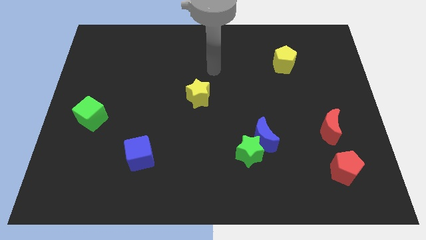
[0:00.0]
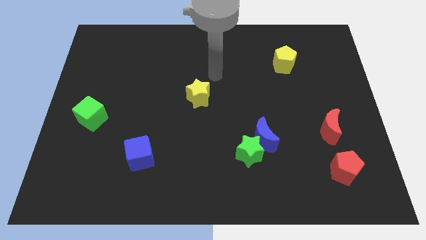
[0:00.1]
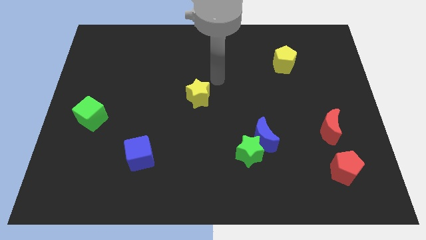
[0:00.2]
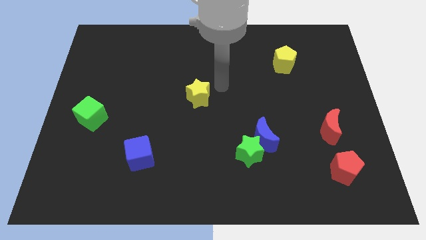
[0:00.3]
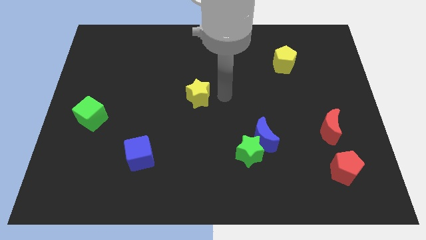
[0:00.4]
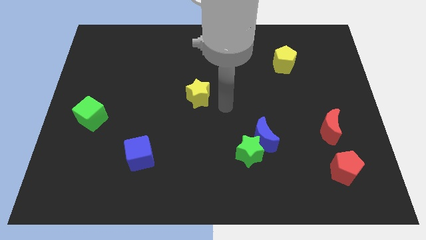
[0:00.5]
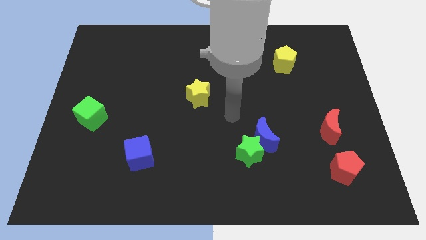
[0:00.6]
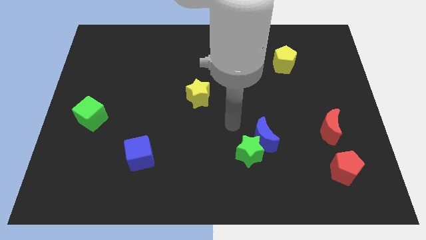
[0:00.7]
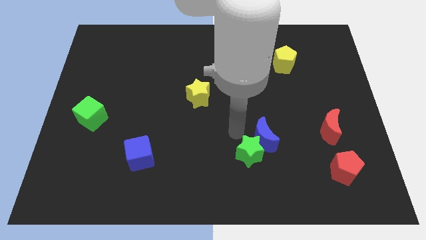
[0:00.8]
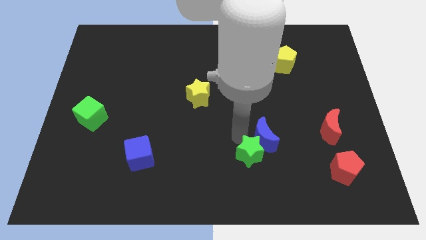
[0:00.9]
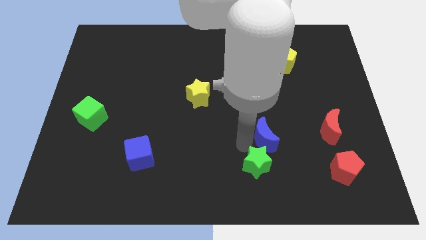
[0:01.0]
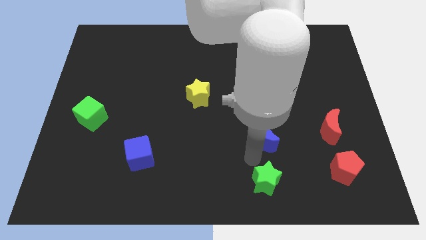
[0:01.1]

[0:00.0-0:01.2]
separate the blue moon from the green star

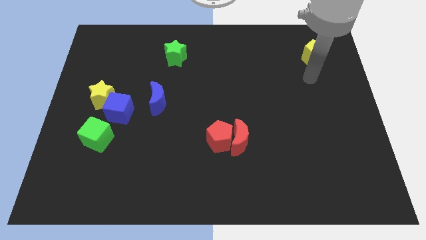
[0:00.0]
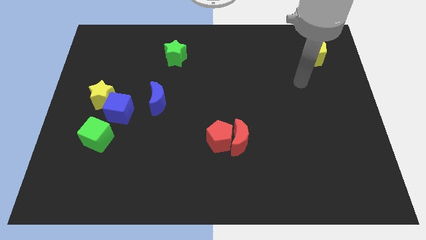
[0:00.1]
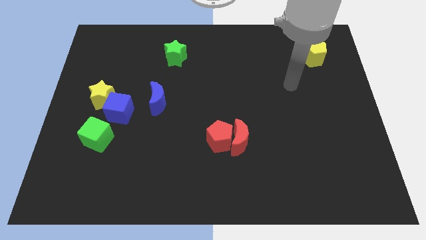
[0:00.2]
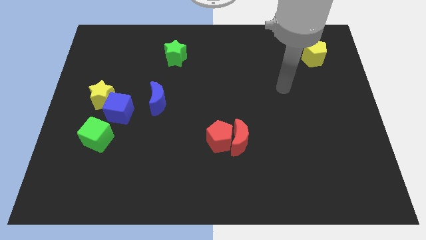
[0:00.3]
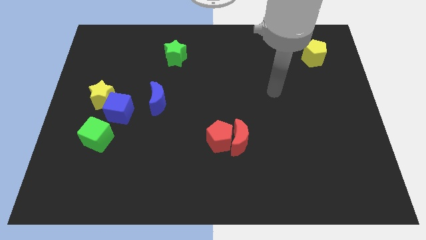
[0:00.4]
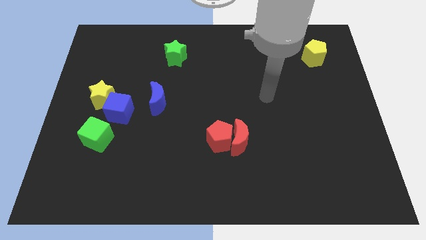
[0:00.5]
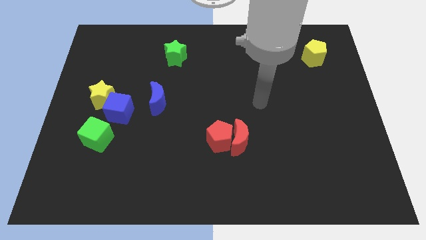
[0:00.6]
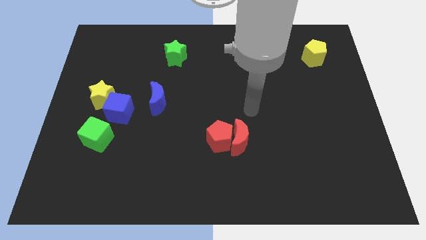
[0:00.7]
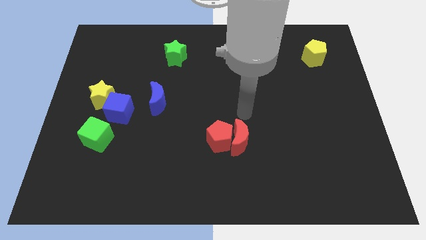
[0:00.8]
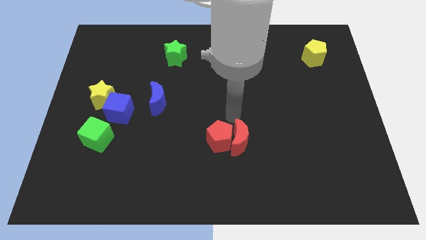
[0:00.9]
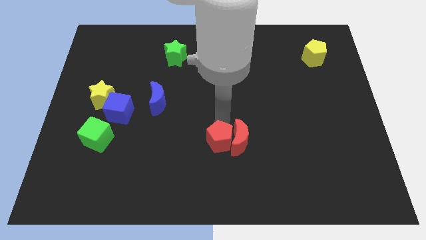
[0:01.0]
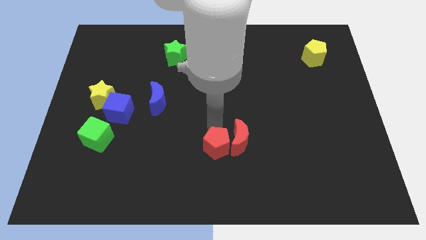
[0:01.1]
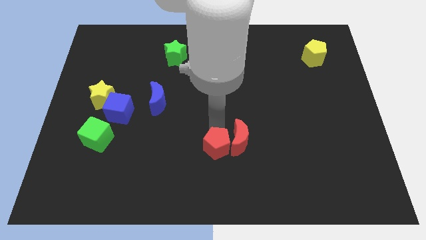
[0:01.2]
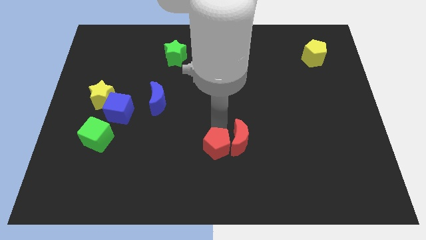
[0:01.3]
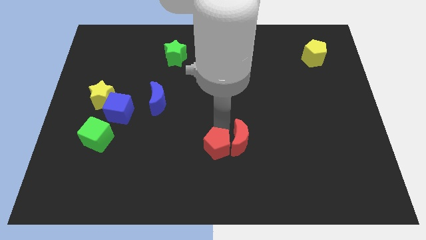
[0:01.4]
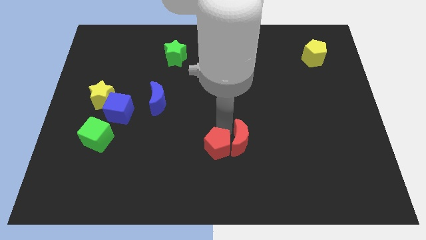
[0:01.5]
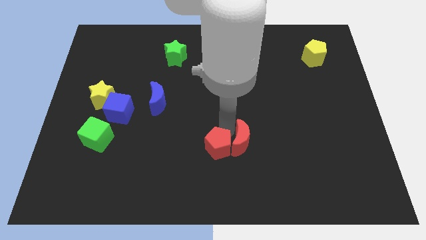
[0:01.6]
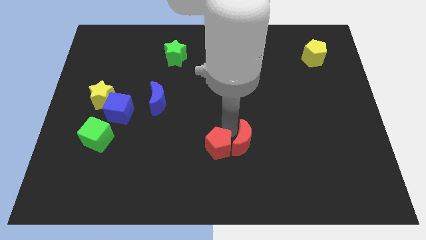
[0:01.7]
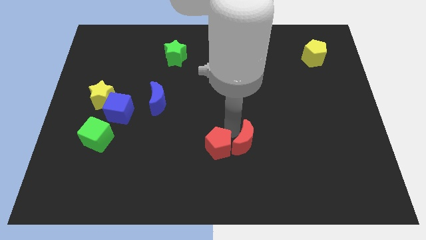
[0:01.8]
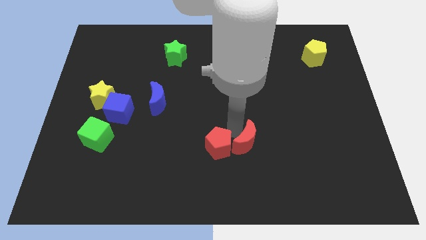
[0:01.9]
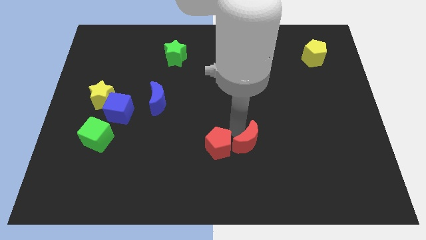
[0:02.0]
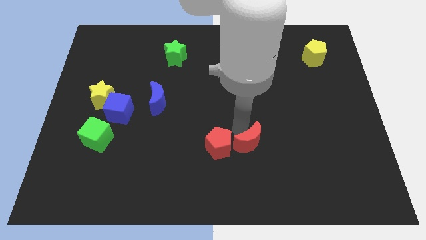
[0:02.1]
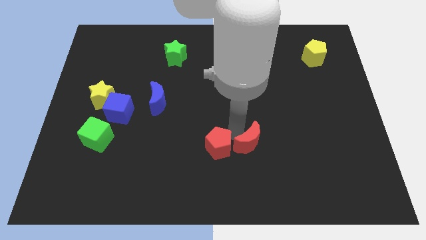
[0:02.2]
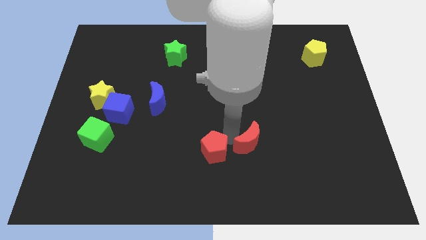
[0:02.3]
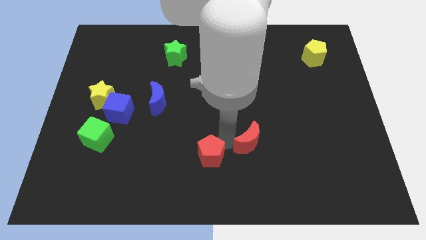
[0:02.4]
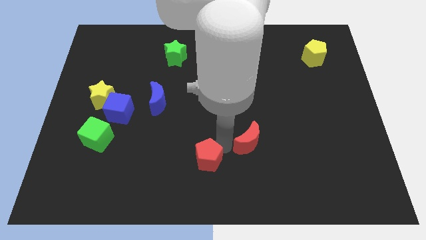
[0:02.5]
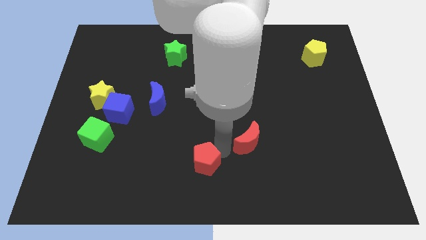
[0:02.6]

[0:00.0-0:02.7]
separate the red moon from the red pentagon

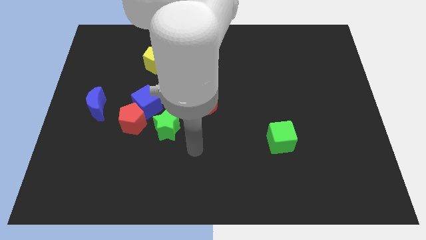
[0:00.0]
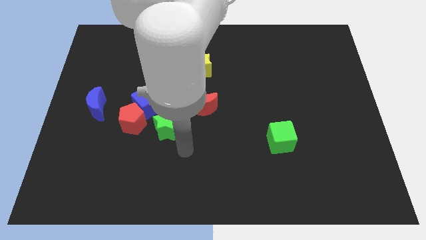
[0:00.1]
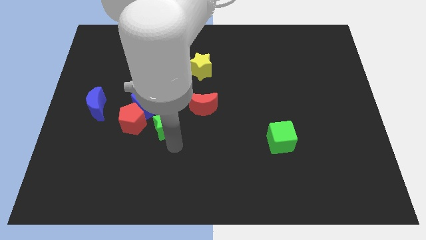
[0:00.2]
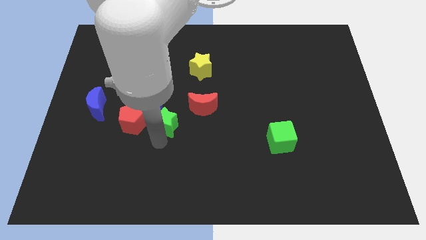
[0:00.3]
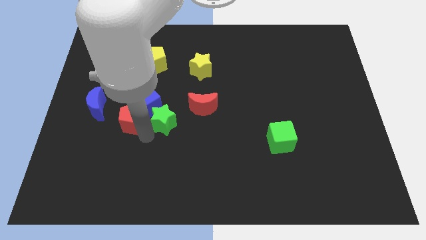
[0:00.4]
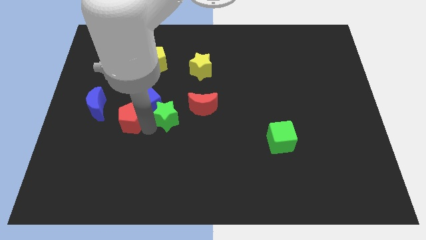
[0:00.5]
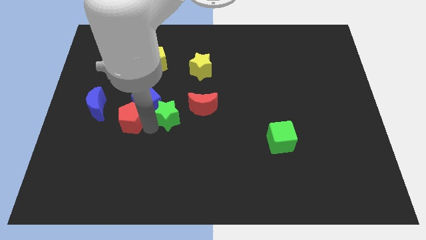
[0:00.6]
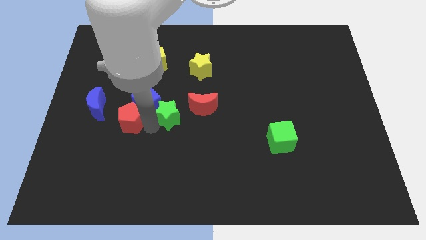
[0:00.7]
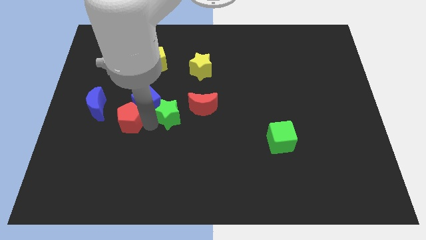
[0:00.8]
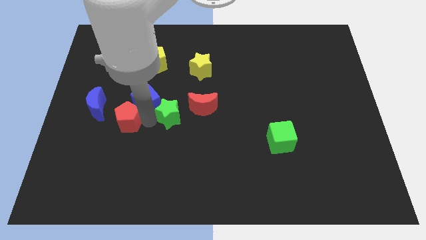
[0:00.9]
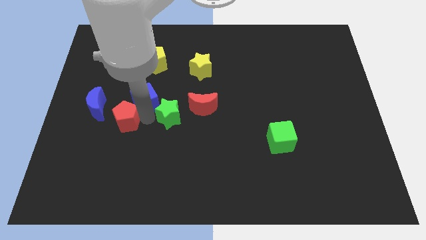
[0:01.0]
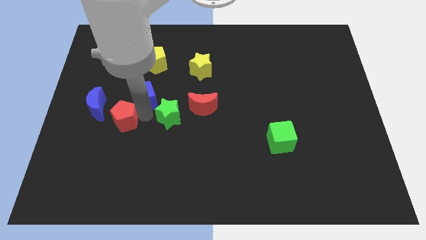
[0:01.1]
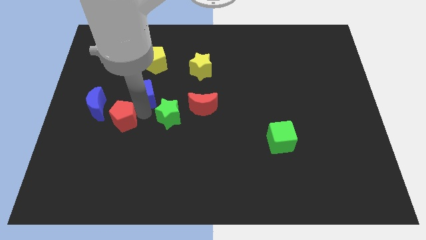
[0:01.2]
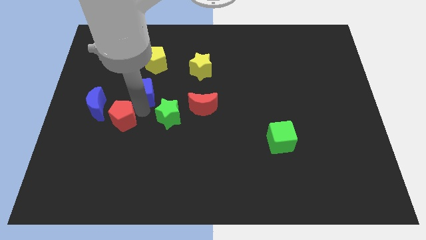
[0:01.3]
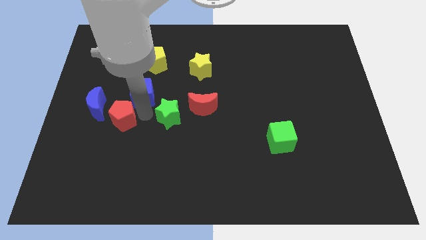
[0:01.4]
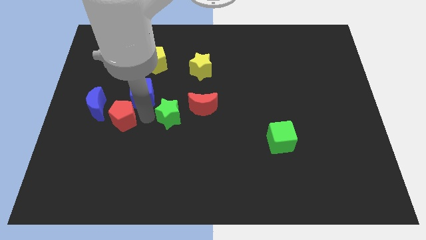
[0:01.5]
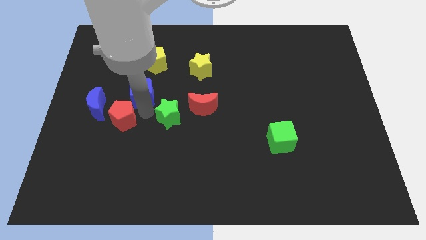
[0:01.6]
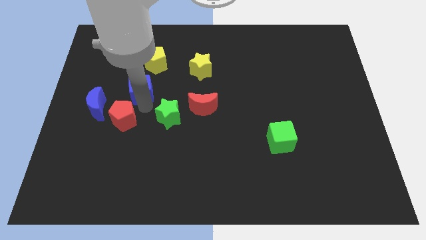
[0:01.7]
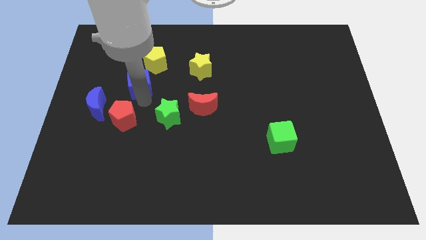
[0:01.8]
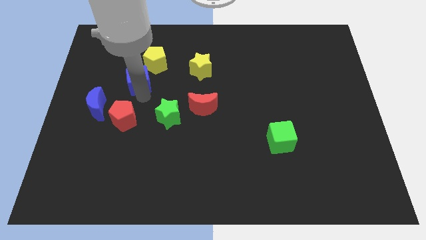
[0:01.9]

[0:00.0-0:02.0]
move the blue cube away from the red pentagon and green star

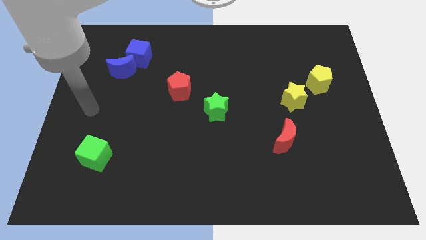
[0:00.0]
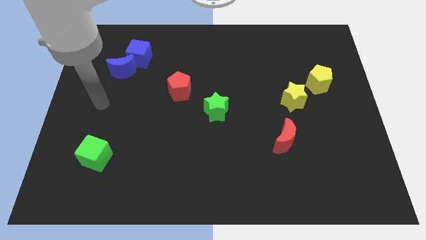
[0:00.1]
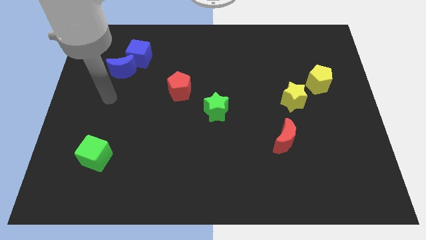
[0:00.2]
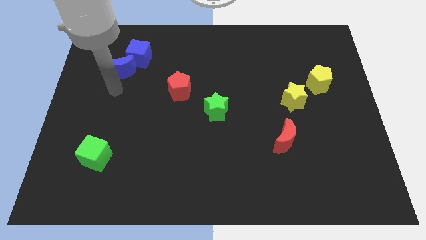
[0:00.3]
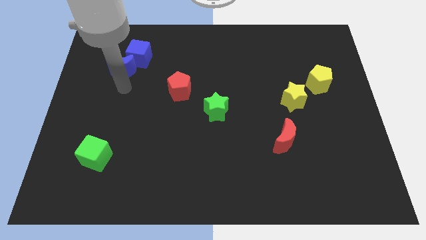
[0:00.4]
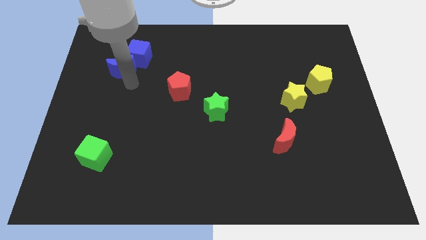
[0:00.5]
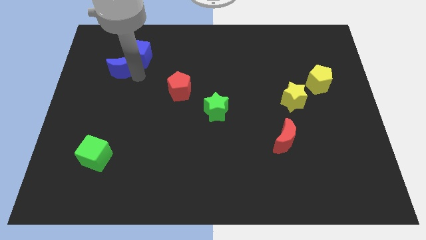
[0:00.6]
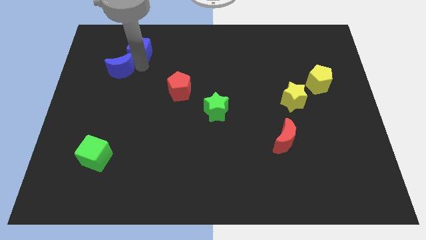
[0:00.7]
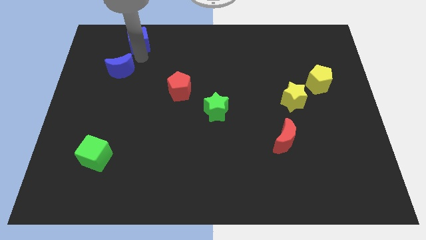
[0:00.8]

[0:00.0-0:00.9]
move the blue moon away from the blue cube

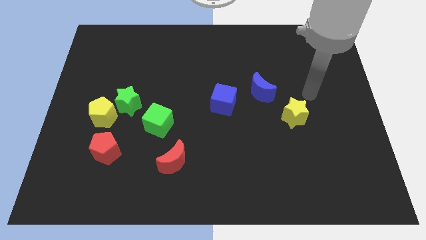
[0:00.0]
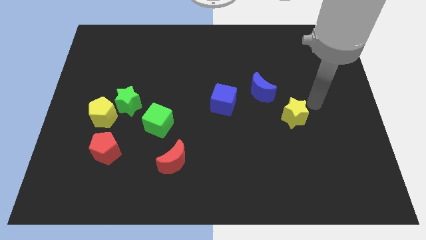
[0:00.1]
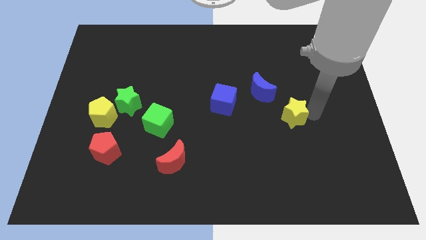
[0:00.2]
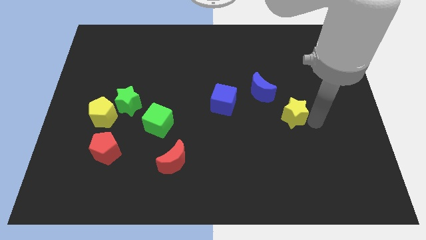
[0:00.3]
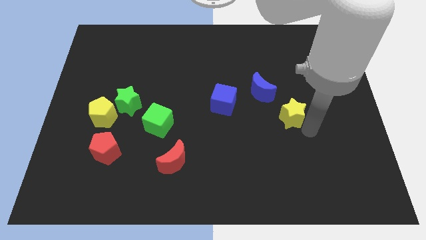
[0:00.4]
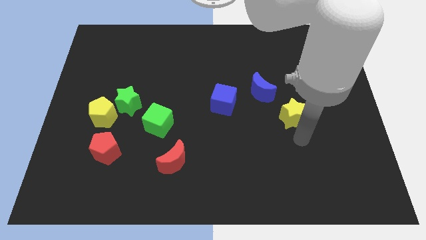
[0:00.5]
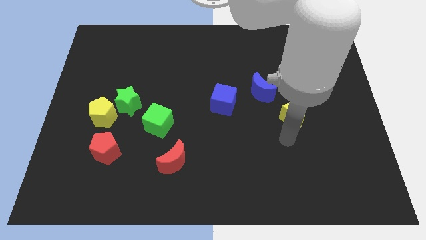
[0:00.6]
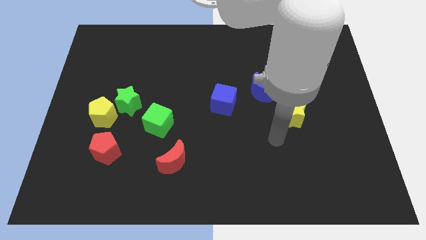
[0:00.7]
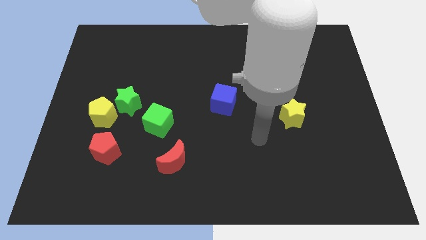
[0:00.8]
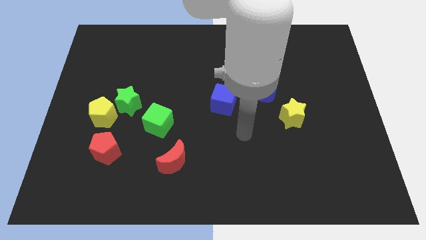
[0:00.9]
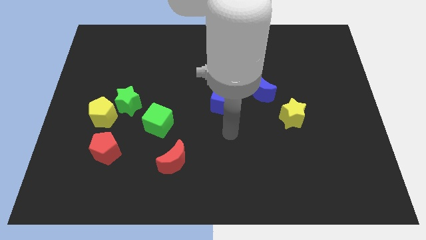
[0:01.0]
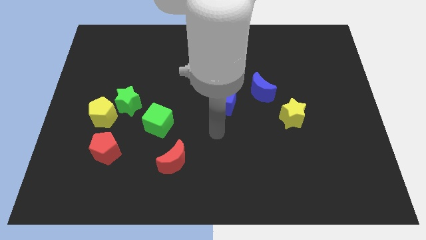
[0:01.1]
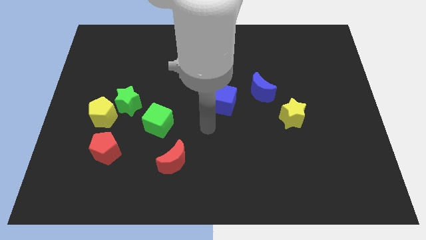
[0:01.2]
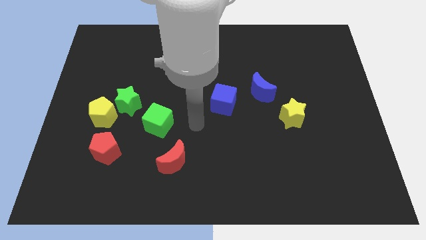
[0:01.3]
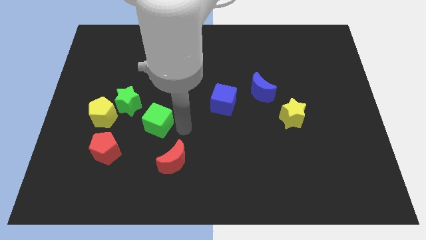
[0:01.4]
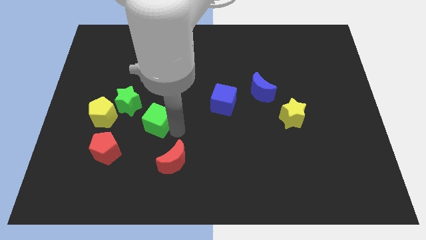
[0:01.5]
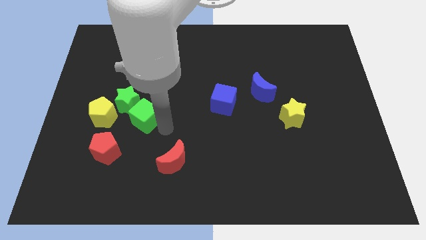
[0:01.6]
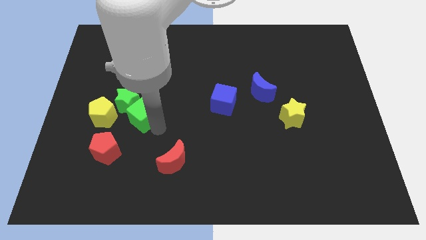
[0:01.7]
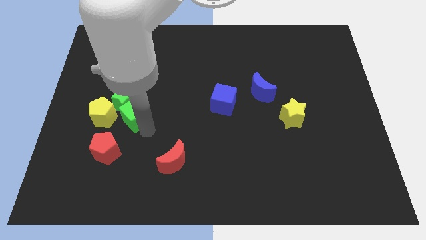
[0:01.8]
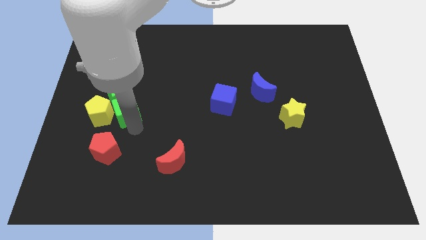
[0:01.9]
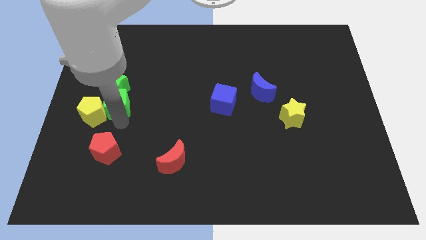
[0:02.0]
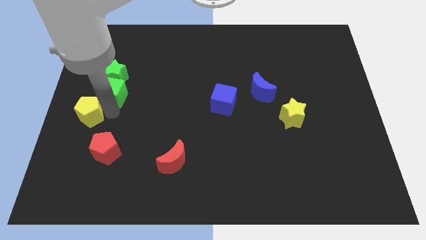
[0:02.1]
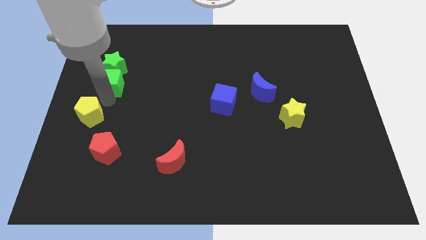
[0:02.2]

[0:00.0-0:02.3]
move the green star away from the yellow pentagon and green cube
